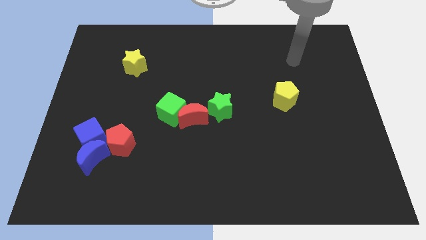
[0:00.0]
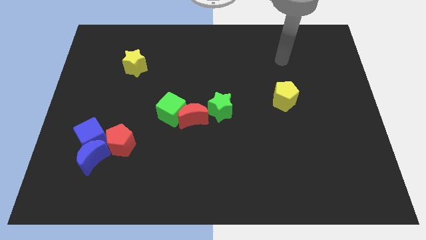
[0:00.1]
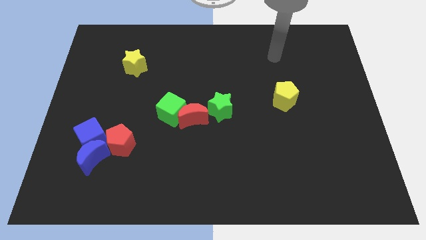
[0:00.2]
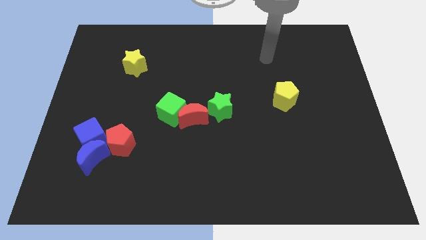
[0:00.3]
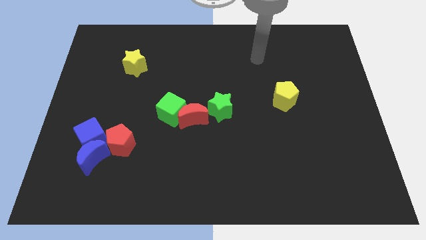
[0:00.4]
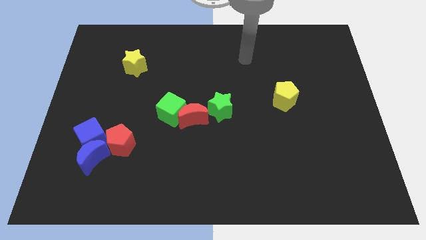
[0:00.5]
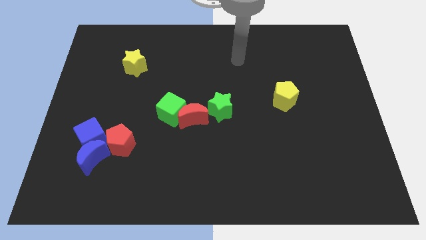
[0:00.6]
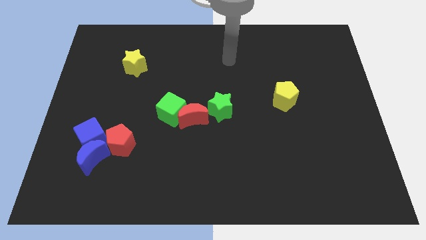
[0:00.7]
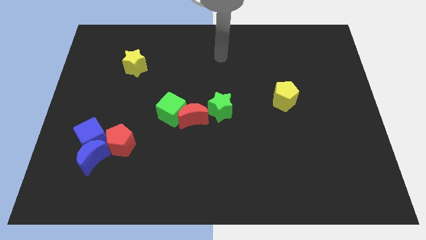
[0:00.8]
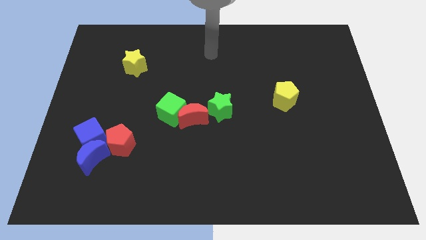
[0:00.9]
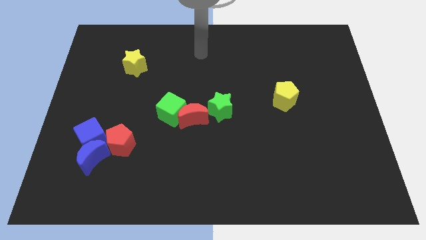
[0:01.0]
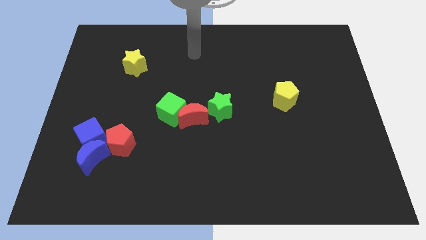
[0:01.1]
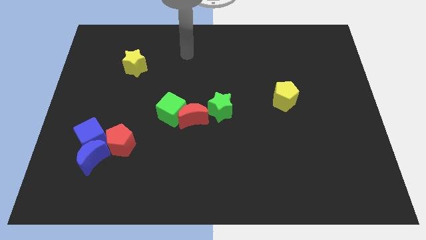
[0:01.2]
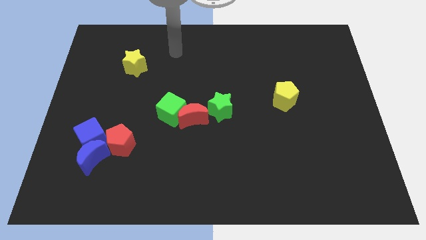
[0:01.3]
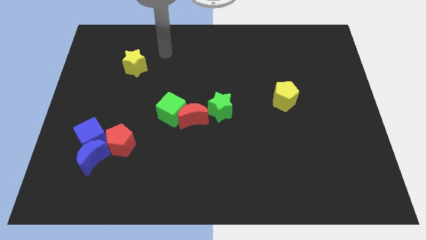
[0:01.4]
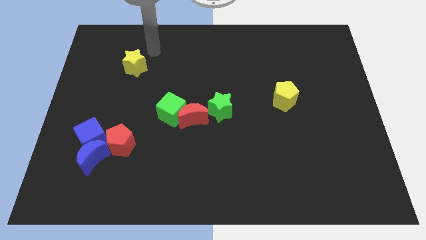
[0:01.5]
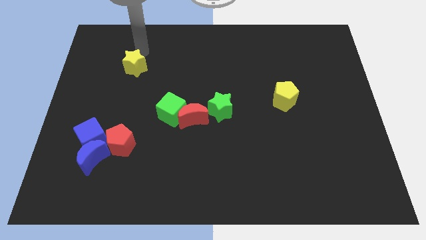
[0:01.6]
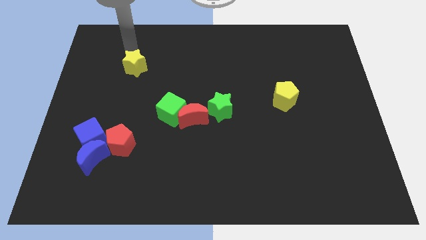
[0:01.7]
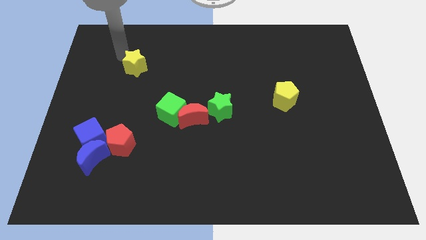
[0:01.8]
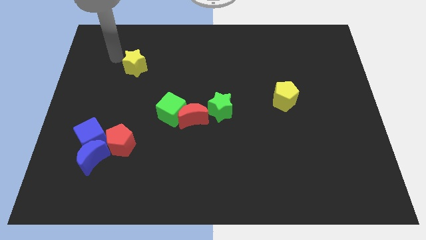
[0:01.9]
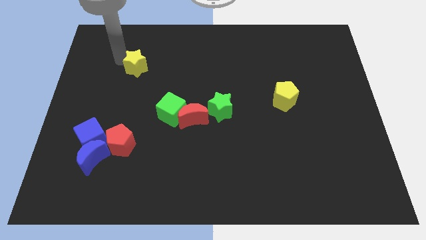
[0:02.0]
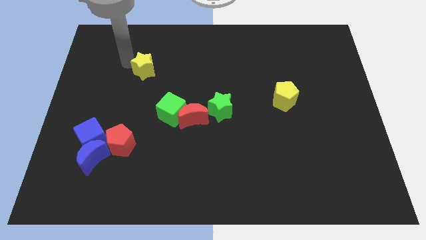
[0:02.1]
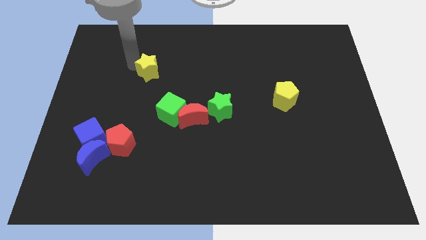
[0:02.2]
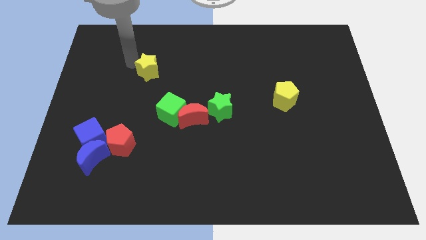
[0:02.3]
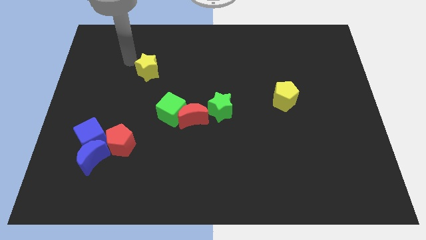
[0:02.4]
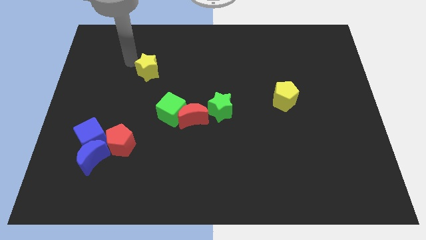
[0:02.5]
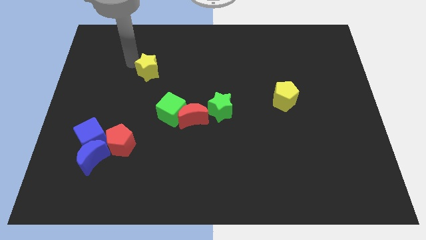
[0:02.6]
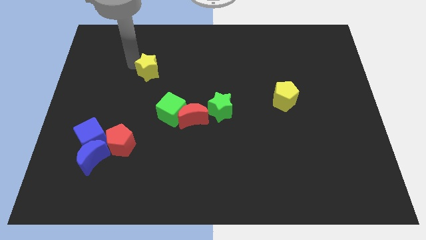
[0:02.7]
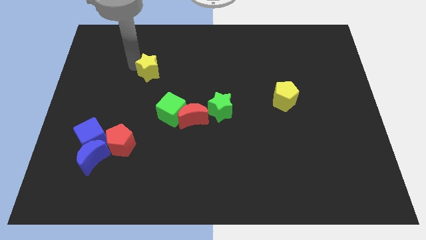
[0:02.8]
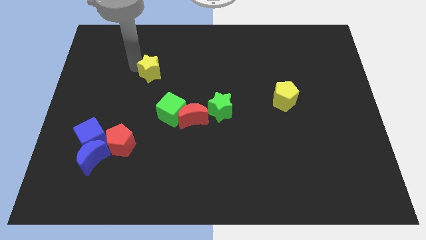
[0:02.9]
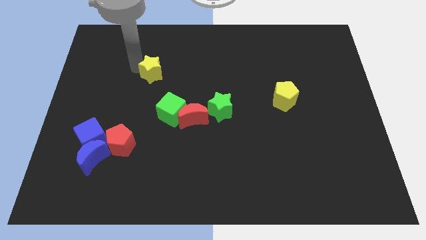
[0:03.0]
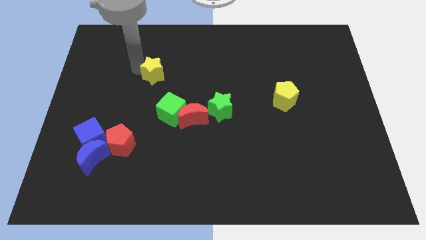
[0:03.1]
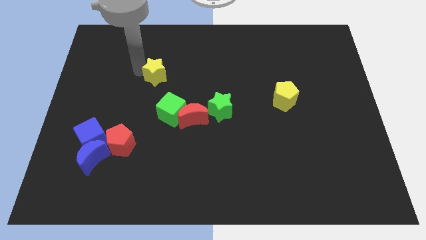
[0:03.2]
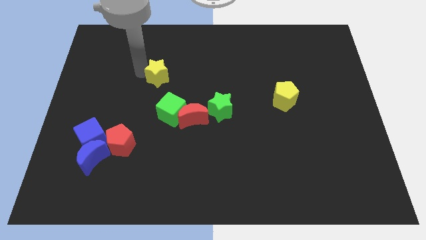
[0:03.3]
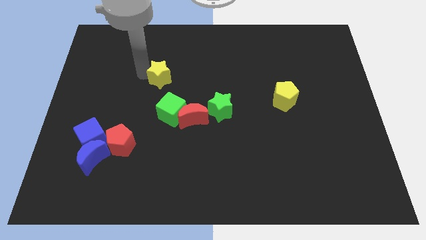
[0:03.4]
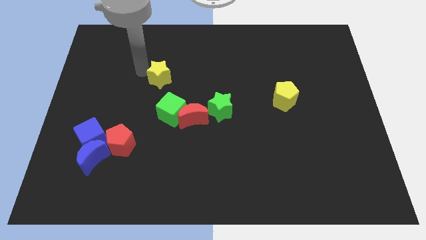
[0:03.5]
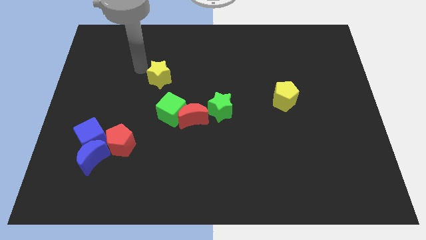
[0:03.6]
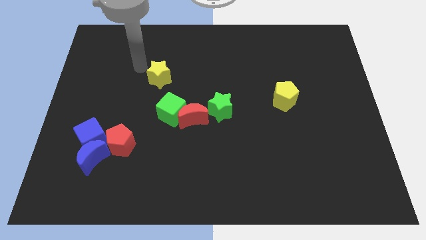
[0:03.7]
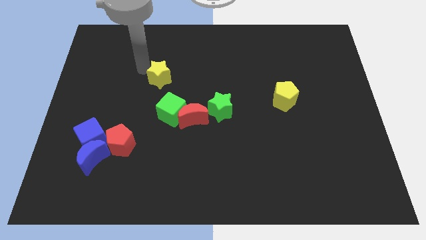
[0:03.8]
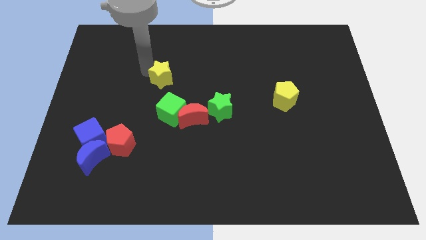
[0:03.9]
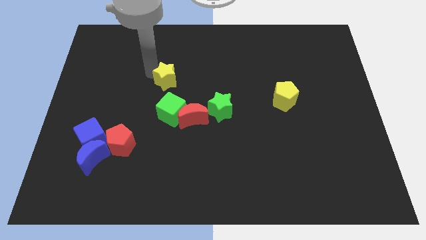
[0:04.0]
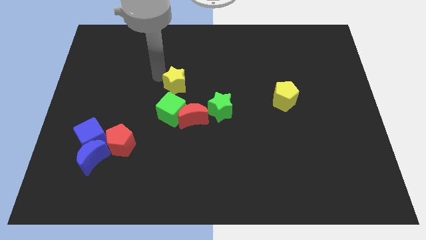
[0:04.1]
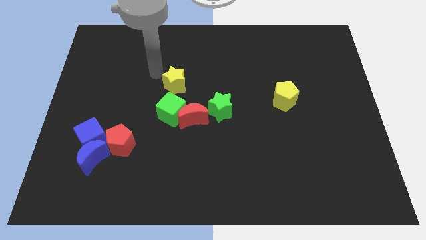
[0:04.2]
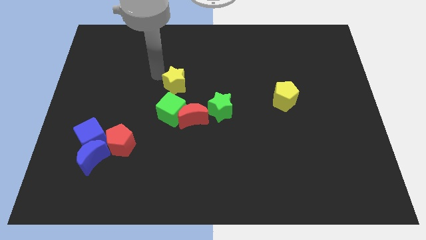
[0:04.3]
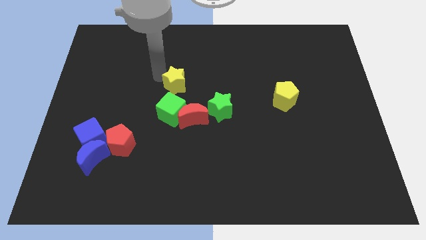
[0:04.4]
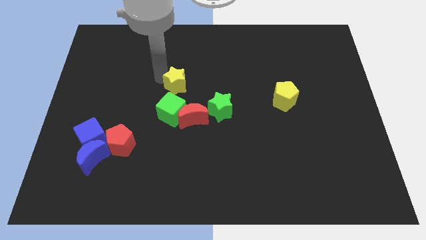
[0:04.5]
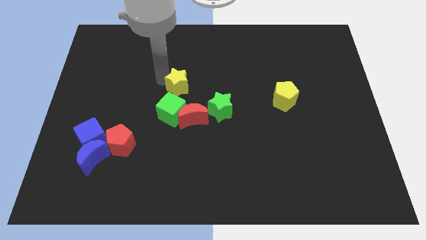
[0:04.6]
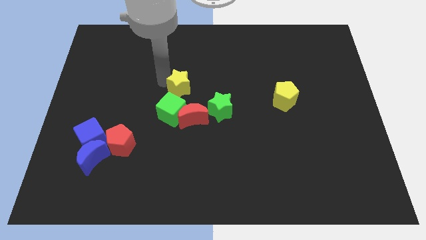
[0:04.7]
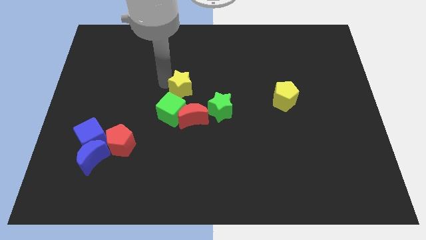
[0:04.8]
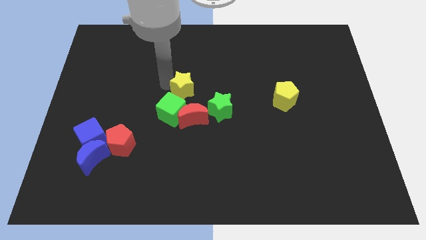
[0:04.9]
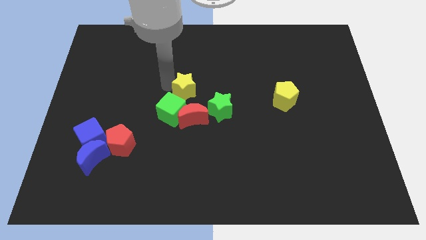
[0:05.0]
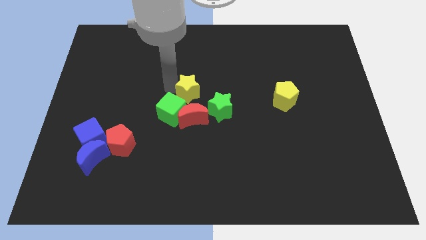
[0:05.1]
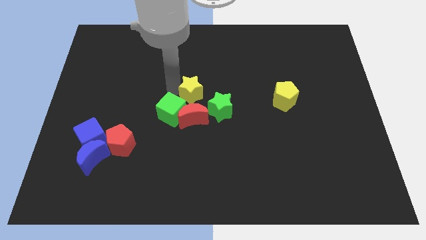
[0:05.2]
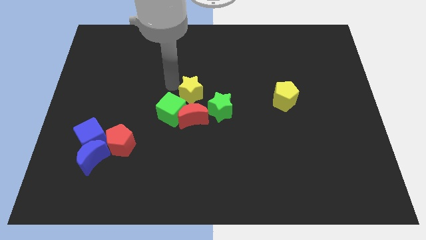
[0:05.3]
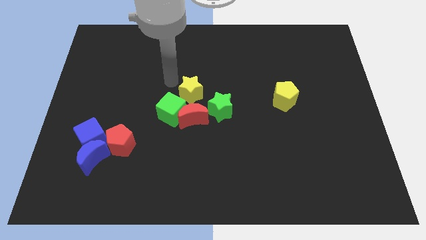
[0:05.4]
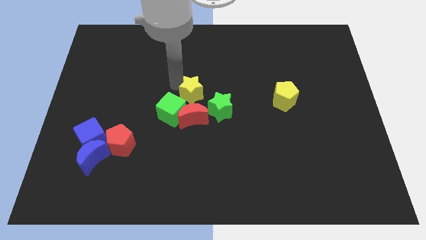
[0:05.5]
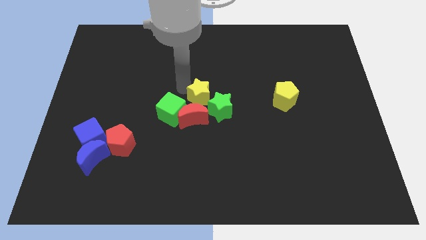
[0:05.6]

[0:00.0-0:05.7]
move the yellow star next to the green star

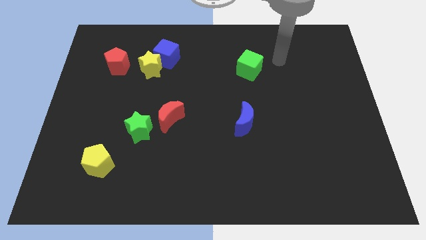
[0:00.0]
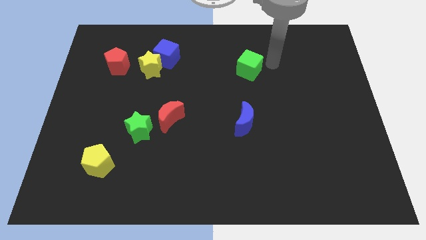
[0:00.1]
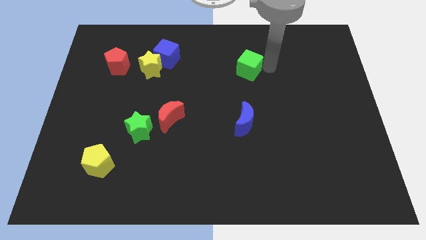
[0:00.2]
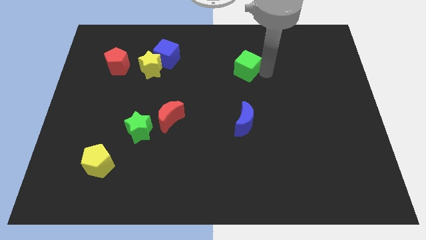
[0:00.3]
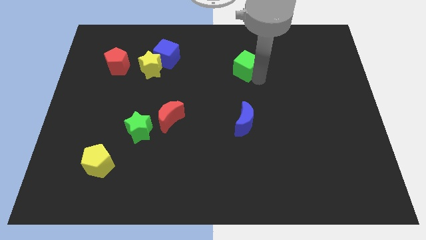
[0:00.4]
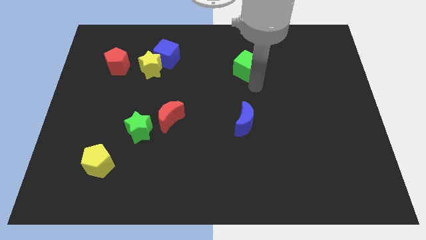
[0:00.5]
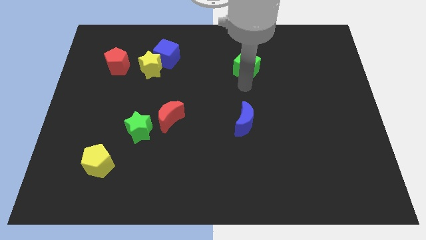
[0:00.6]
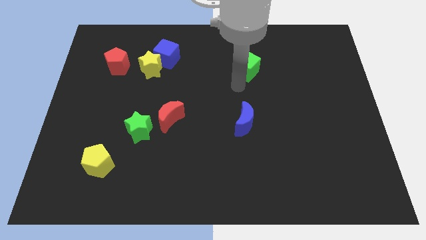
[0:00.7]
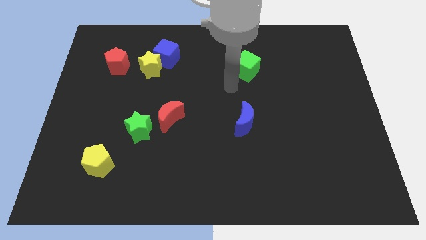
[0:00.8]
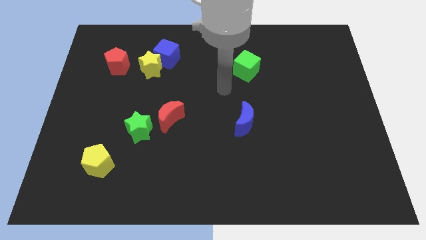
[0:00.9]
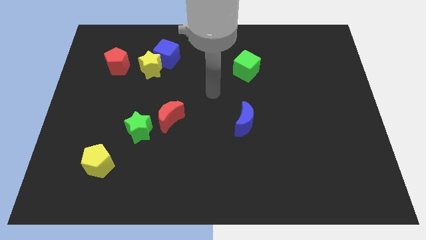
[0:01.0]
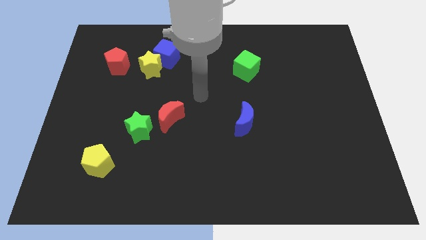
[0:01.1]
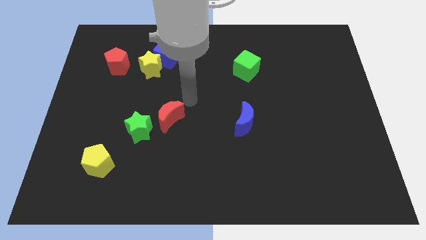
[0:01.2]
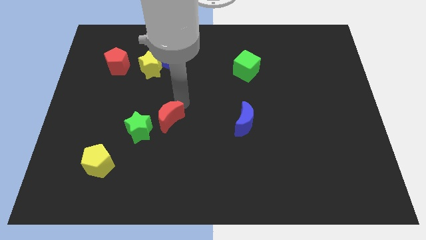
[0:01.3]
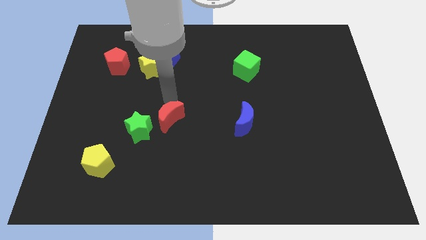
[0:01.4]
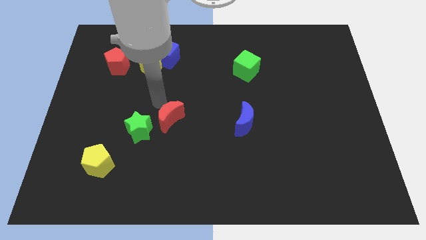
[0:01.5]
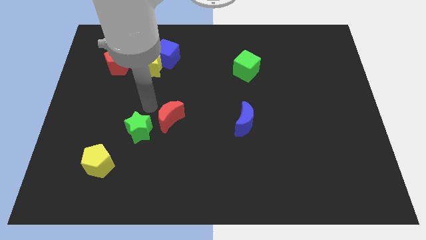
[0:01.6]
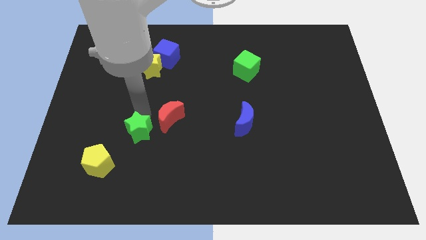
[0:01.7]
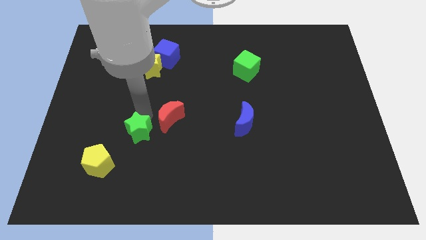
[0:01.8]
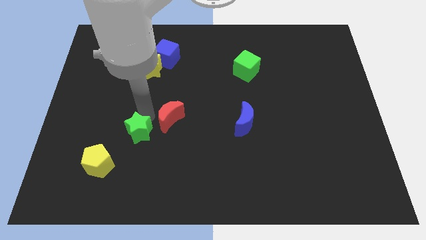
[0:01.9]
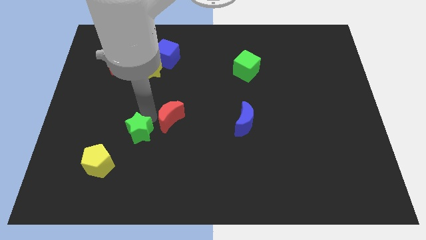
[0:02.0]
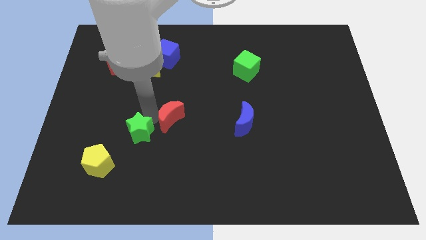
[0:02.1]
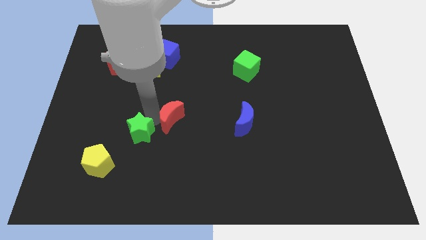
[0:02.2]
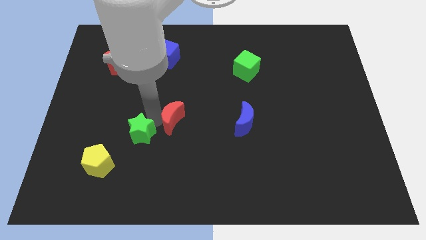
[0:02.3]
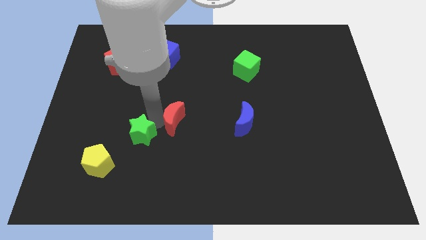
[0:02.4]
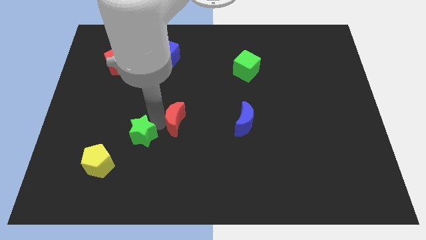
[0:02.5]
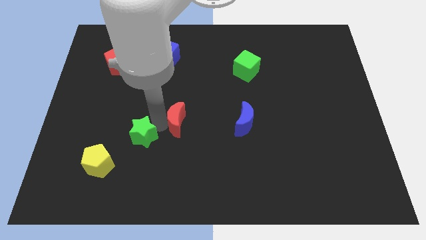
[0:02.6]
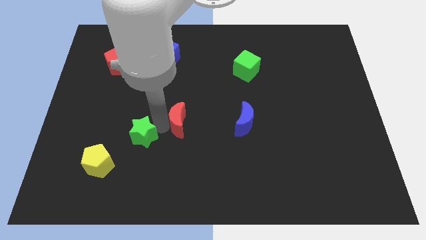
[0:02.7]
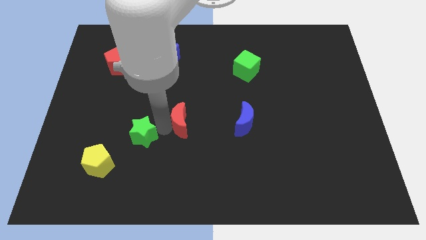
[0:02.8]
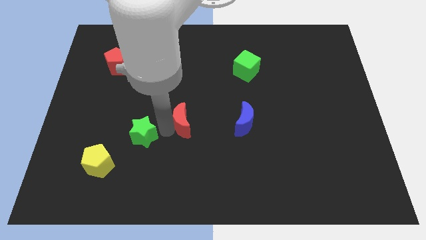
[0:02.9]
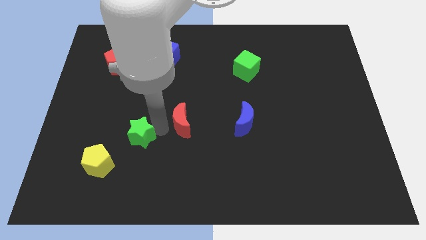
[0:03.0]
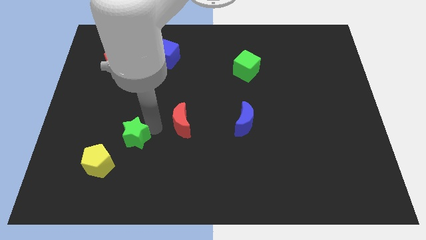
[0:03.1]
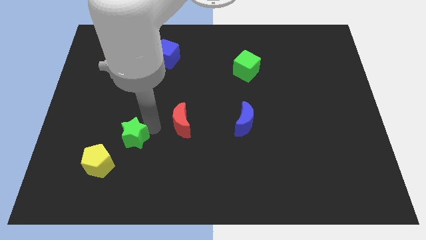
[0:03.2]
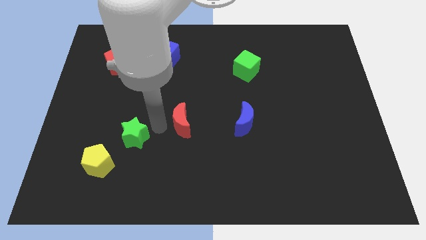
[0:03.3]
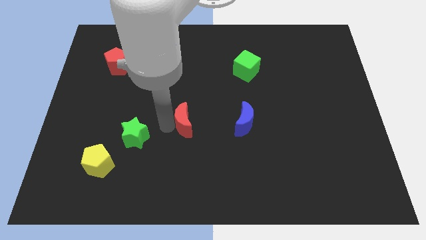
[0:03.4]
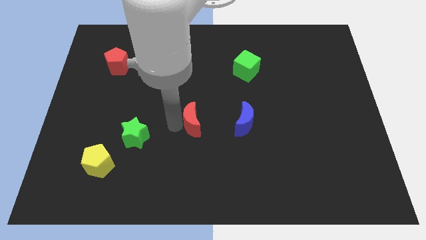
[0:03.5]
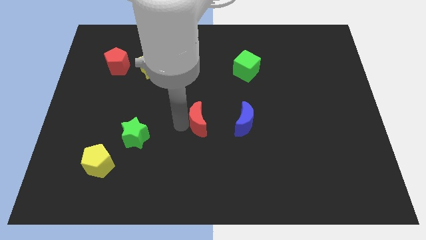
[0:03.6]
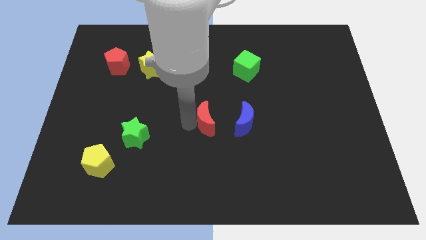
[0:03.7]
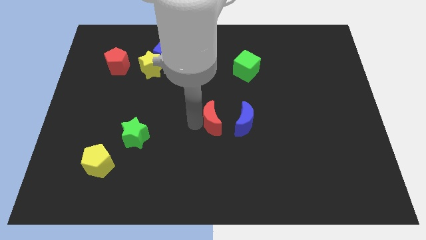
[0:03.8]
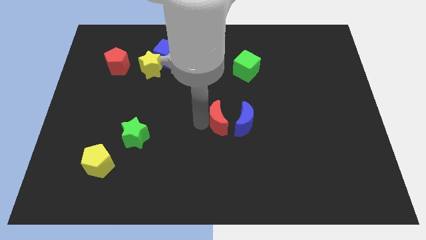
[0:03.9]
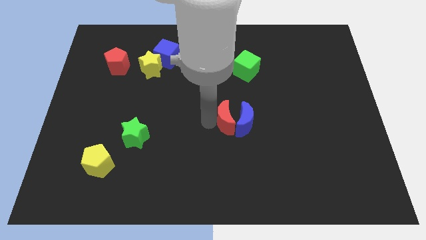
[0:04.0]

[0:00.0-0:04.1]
slide the red moon to the blue moon
